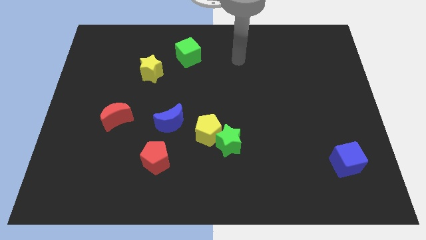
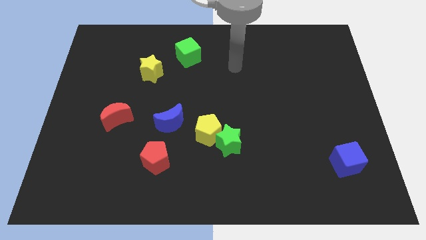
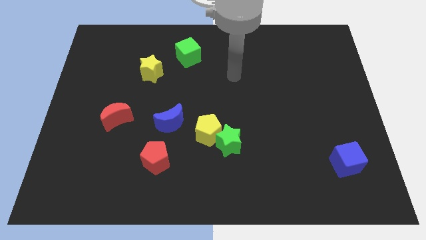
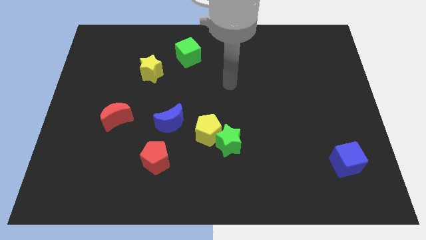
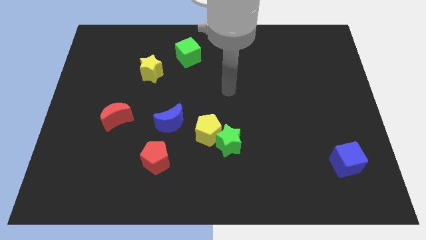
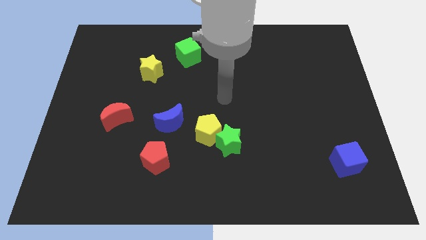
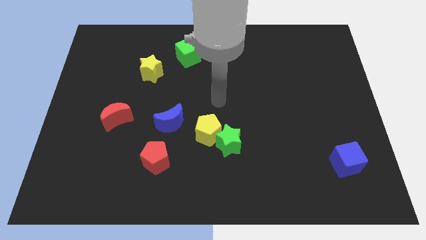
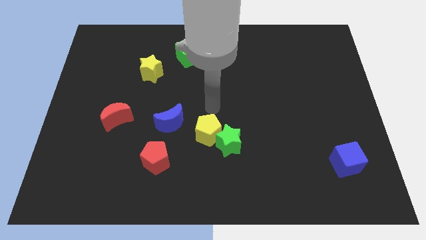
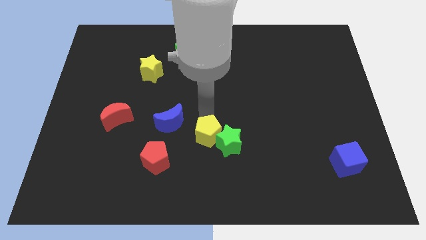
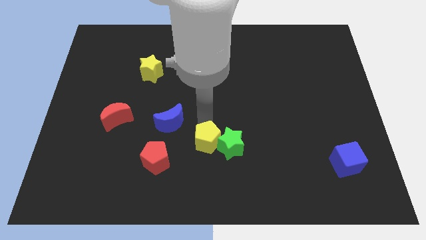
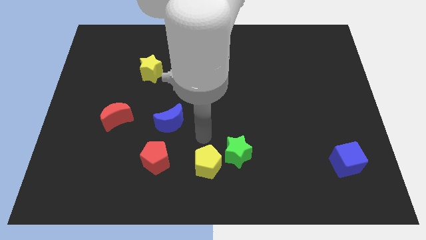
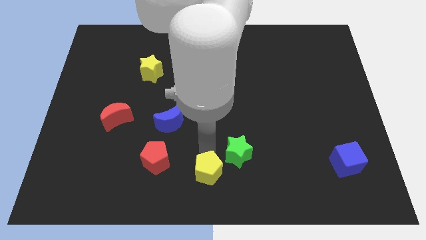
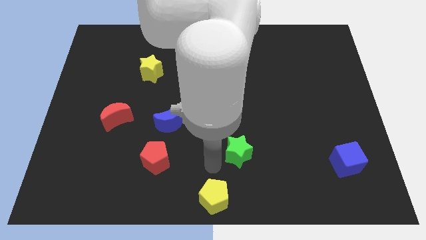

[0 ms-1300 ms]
pull the green star apart from the yellow pentagon

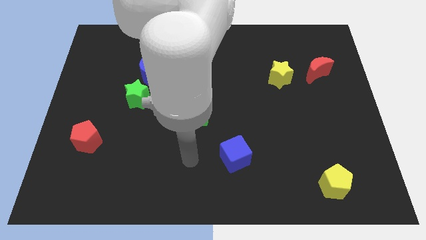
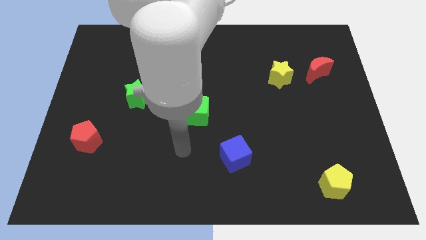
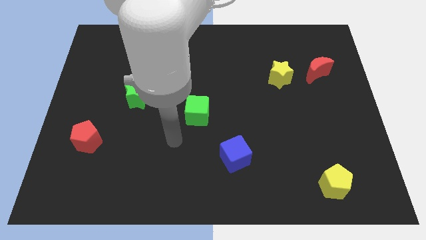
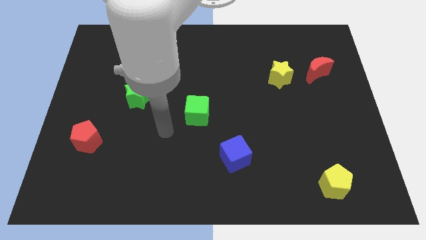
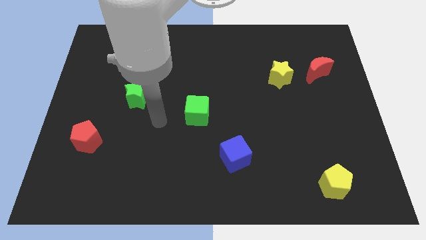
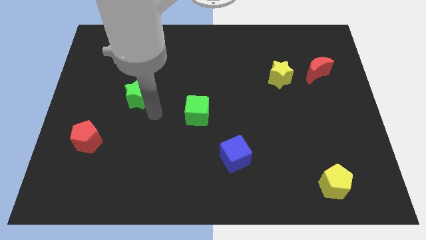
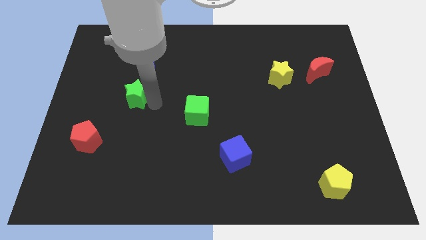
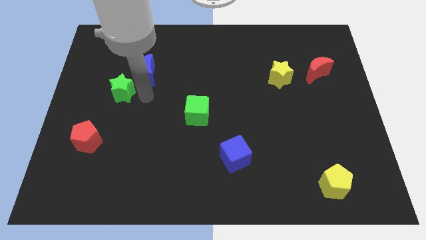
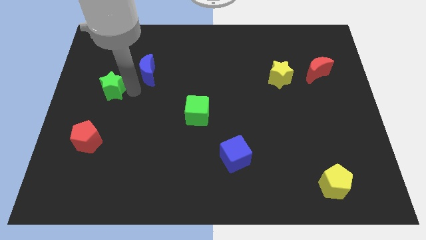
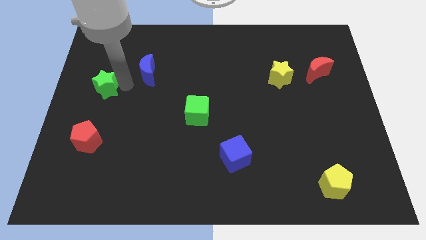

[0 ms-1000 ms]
pull the blue moon apart from the green star

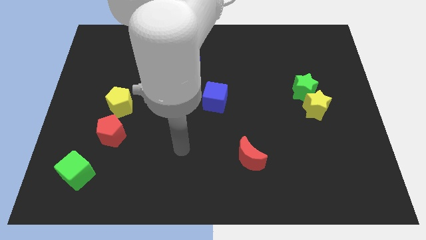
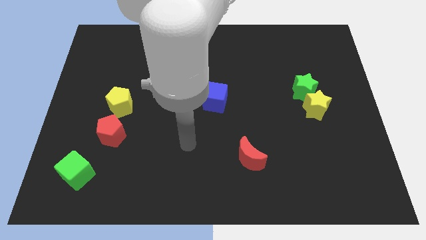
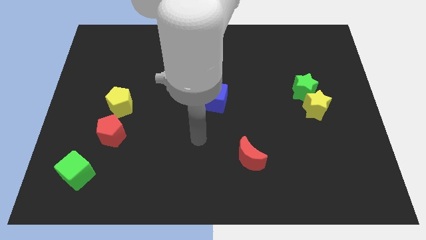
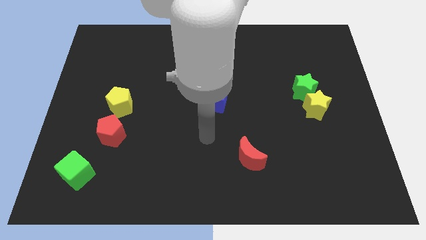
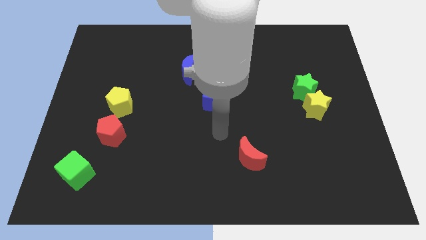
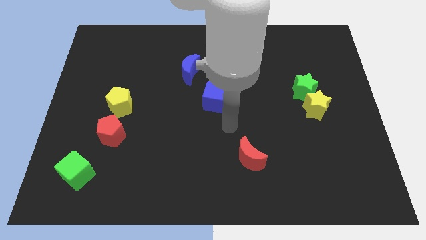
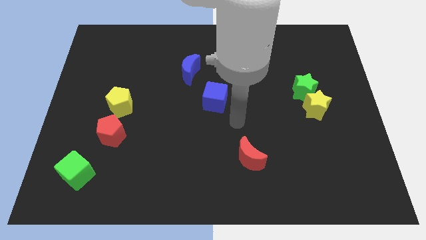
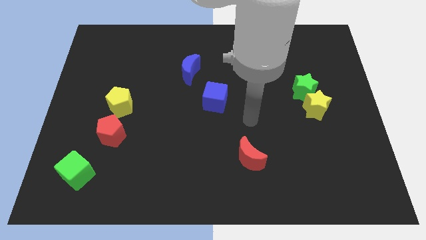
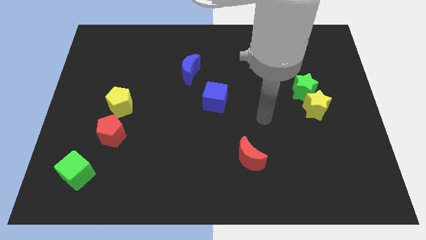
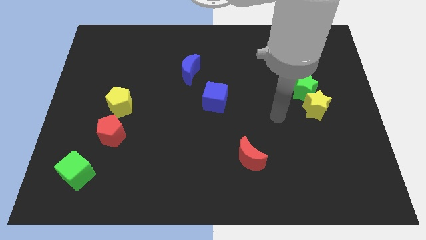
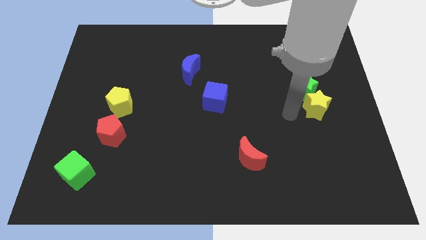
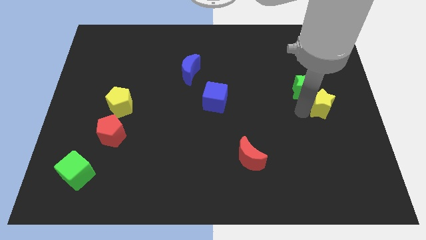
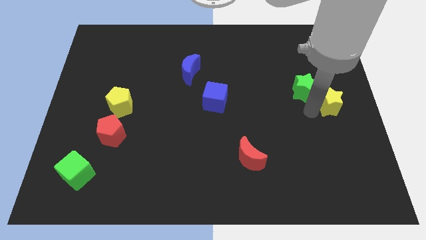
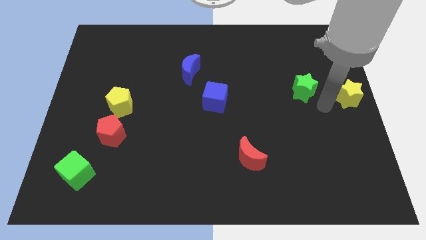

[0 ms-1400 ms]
pull the green star apart from the yellow star

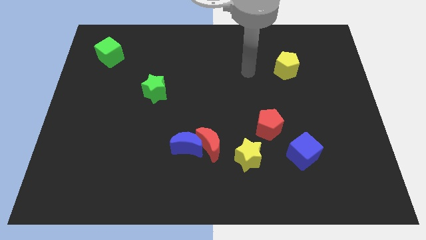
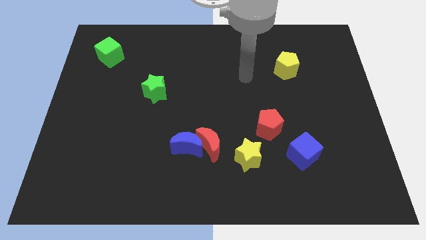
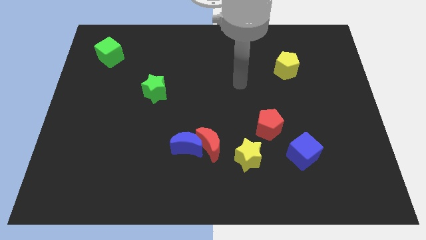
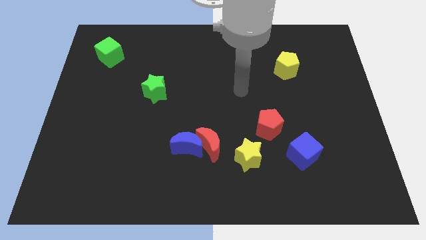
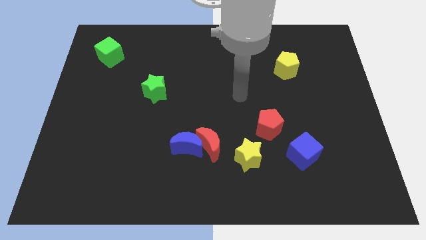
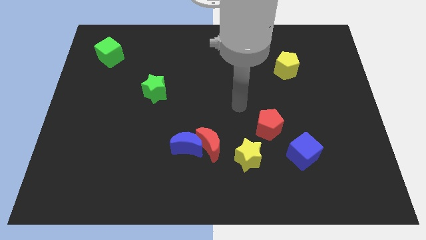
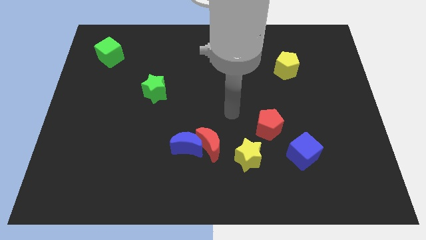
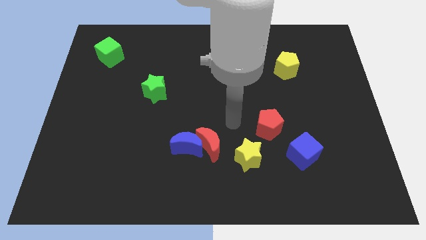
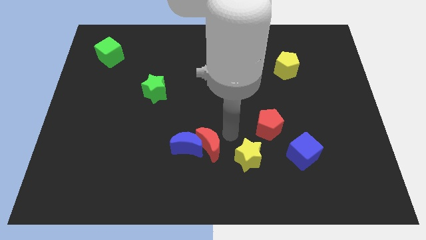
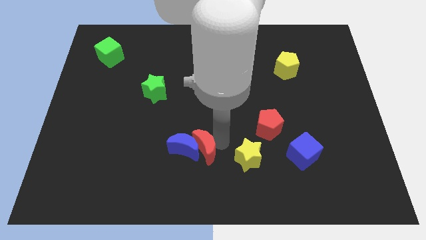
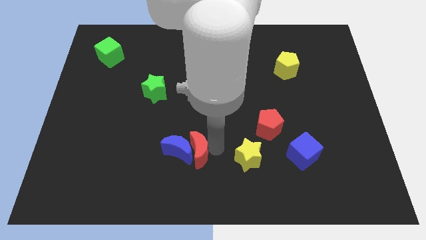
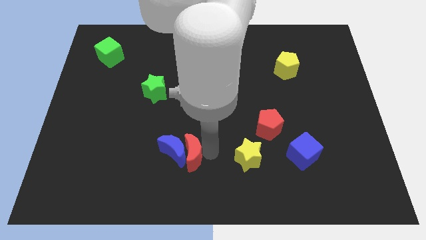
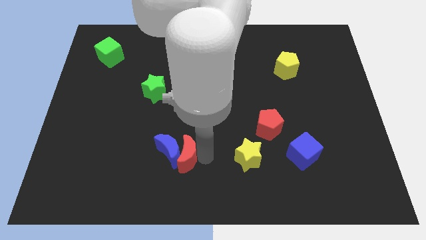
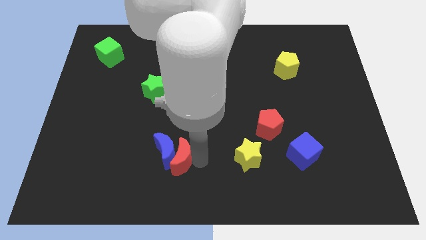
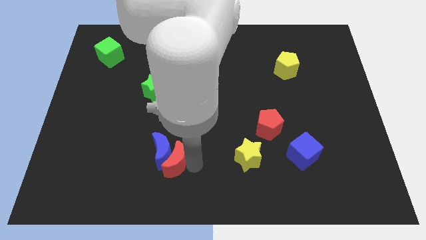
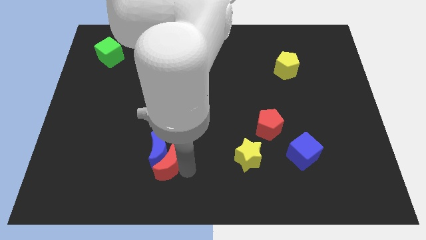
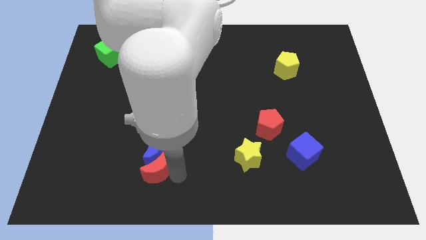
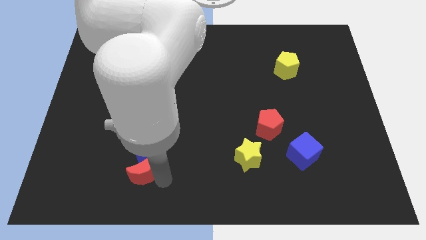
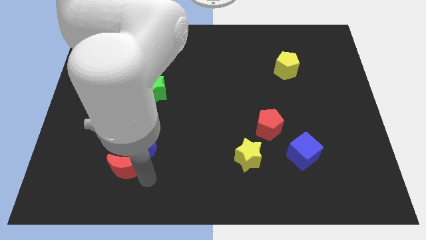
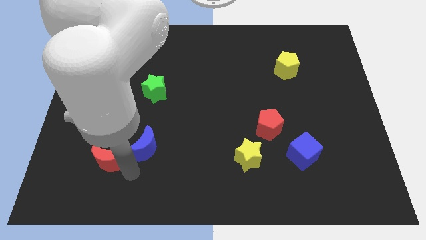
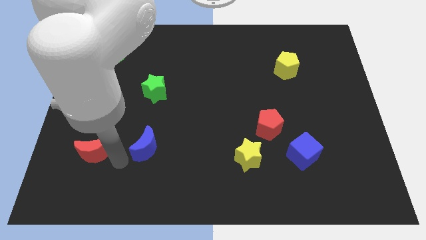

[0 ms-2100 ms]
pull the blue moon apart from the red moon

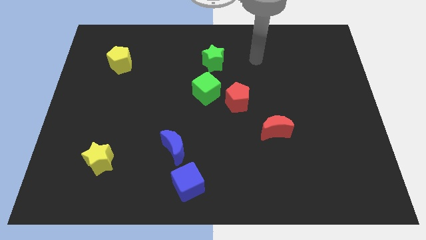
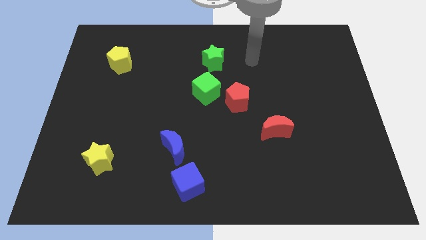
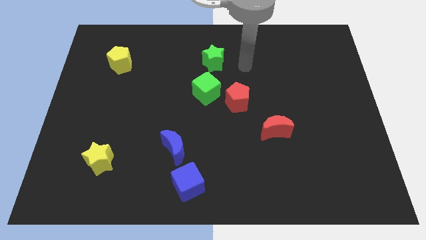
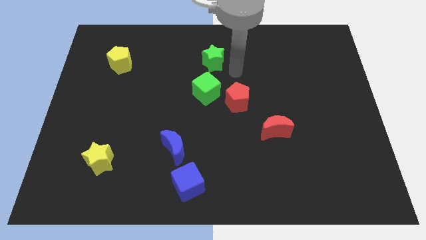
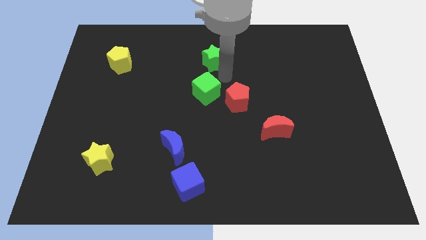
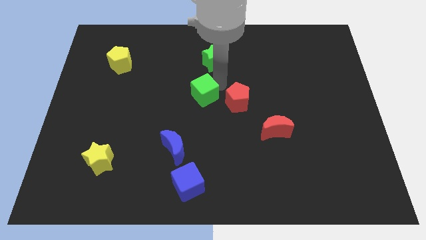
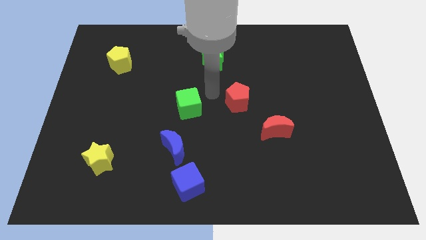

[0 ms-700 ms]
pull the red pentagon apart from the green cube

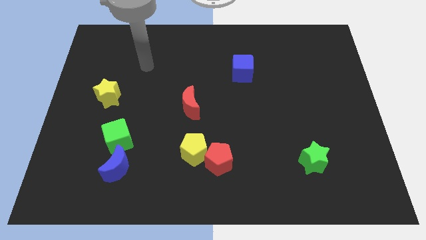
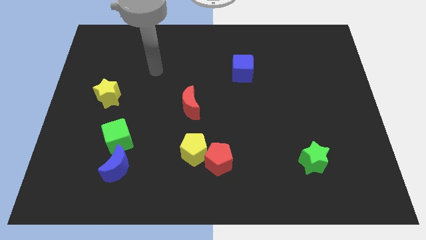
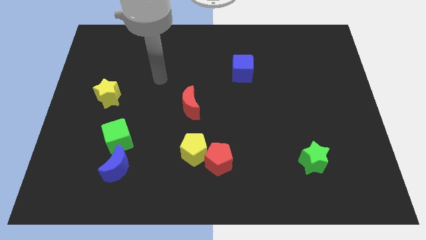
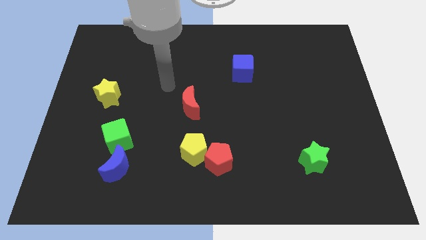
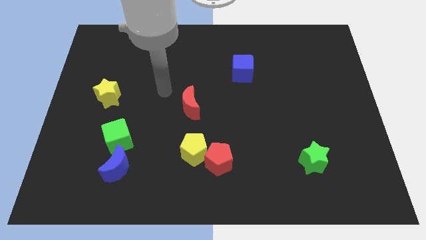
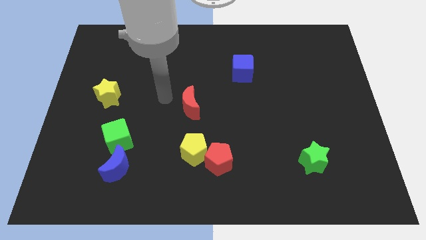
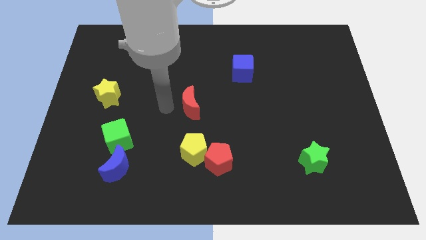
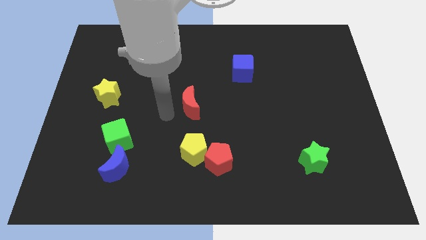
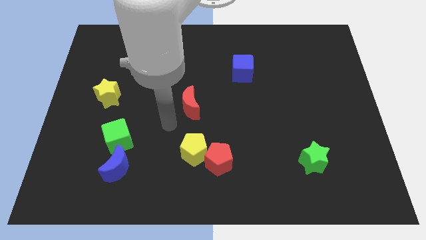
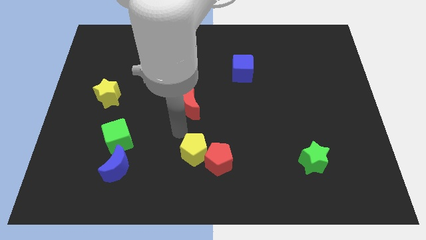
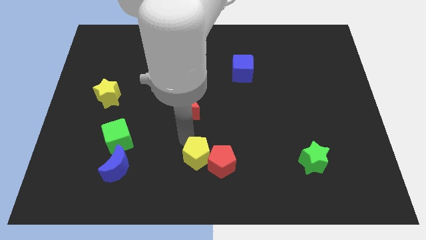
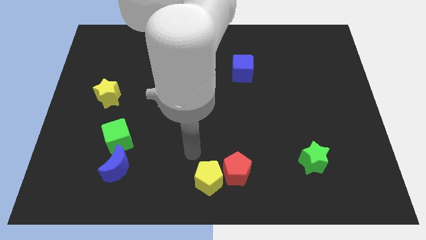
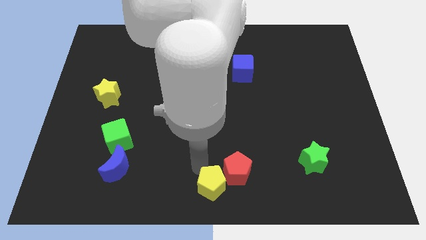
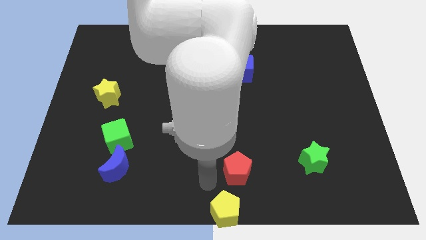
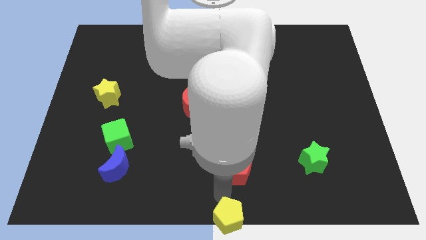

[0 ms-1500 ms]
move the red pentagon away from the yellow pentagon

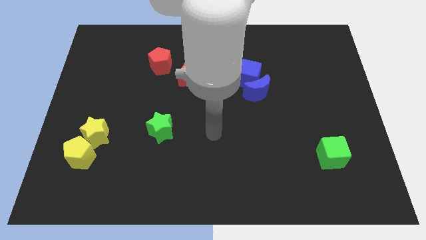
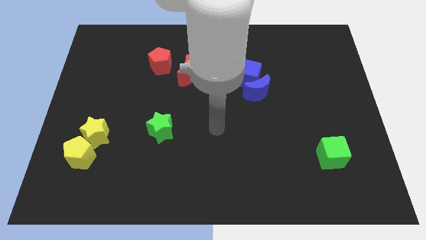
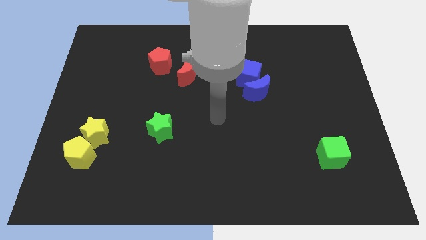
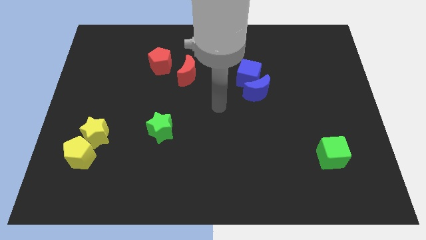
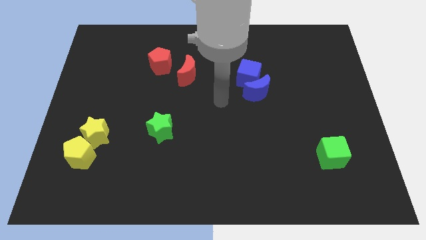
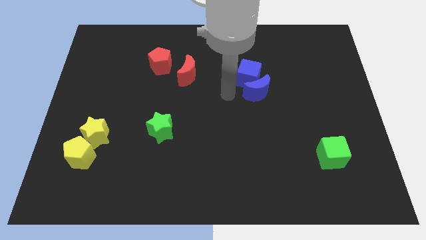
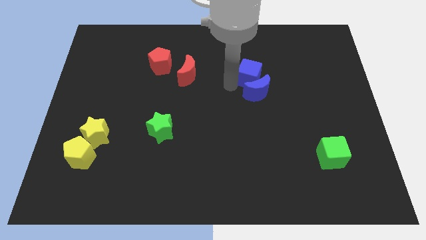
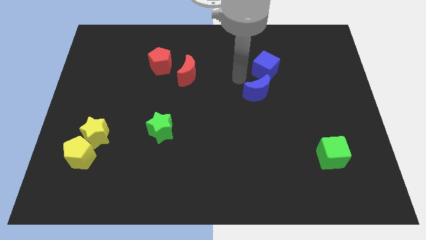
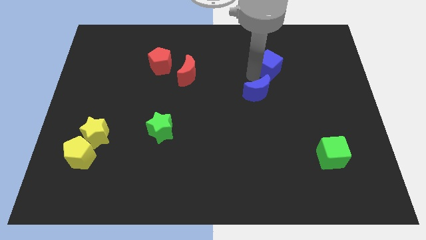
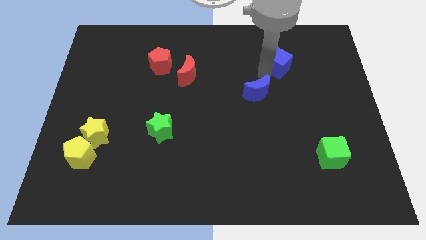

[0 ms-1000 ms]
pull the blue moon apart from the blue cube

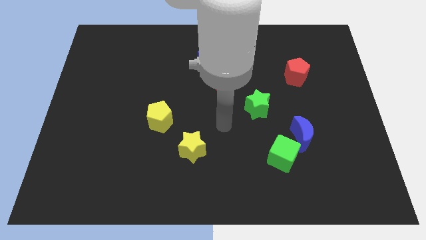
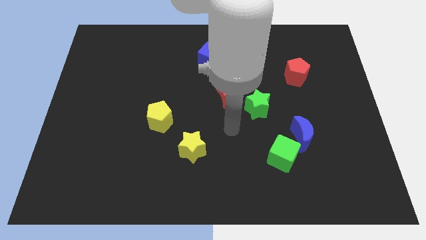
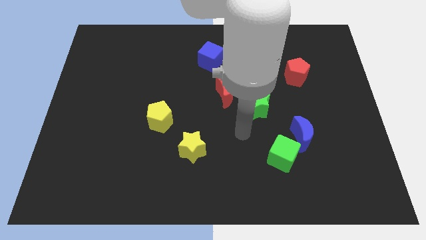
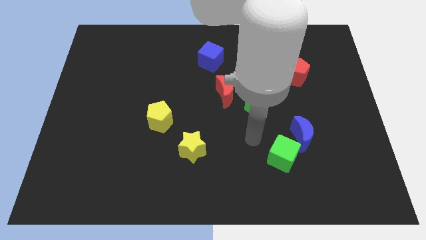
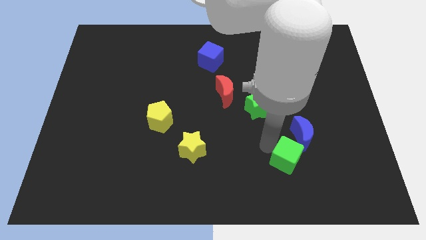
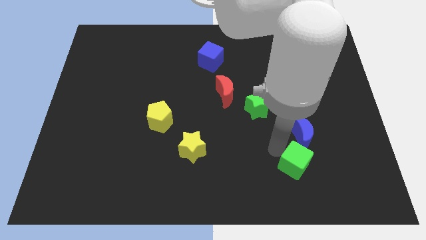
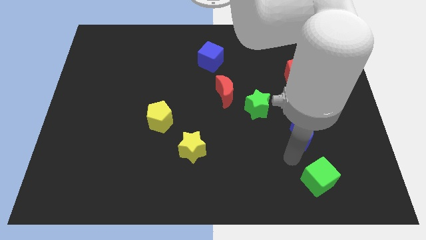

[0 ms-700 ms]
pull the blue moon apart from the green cube
